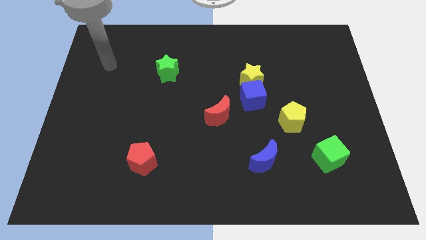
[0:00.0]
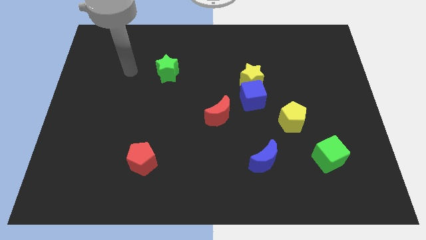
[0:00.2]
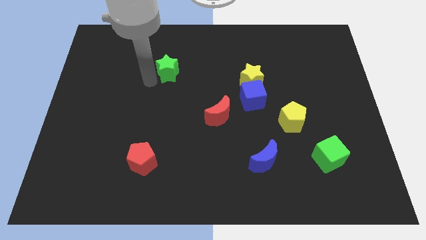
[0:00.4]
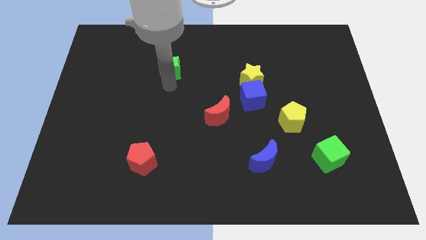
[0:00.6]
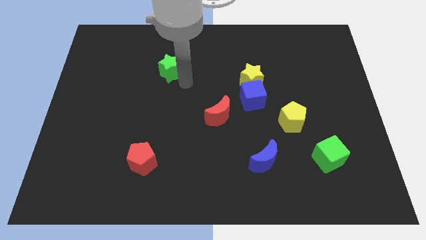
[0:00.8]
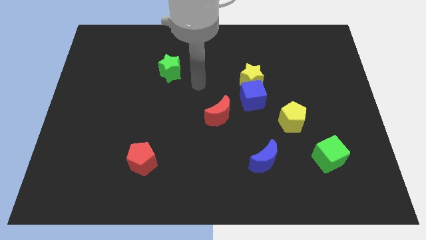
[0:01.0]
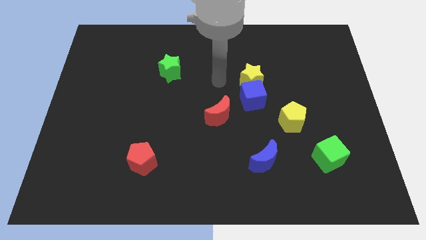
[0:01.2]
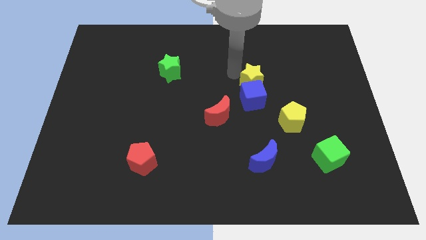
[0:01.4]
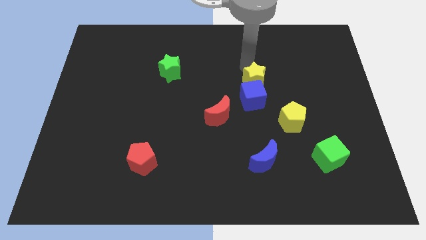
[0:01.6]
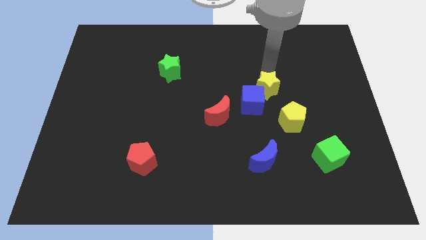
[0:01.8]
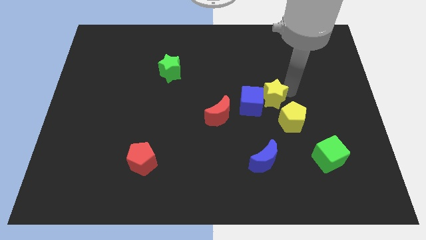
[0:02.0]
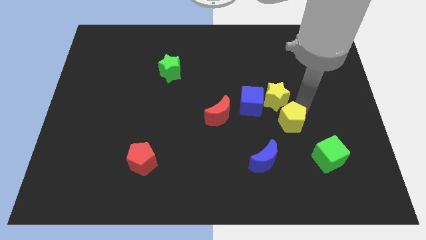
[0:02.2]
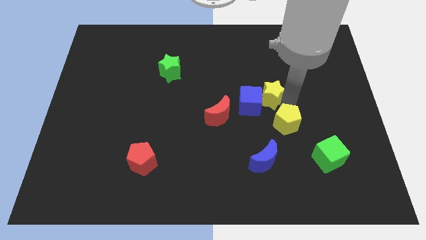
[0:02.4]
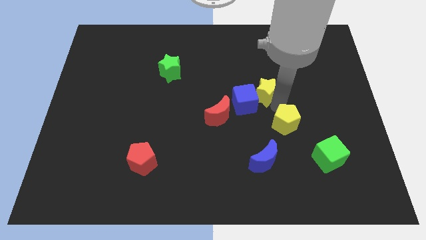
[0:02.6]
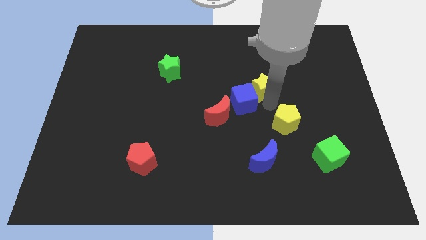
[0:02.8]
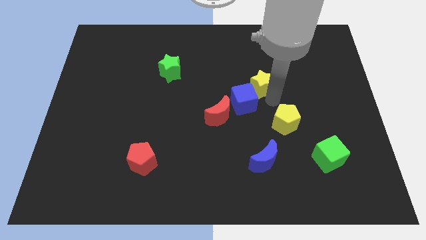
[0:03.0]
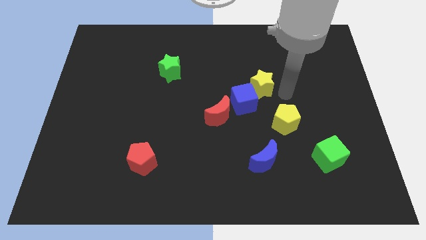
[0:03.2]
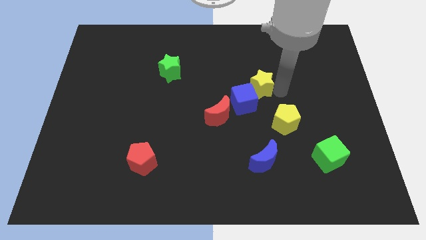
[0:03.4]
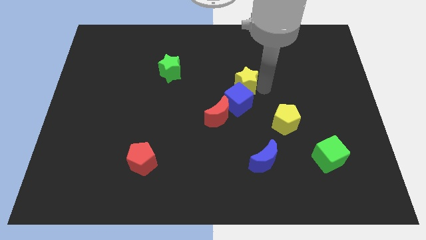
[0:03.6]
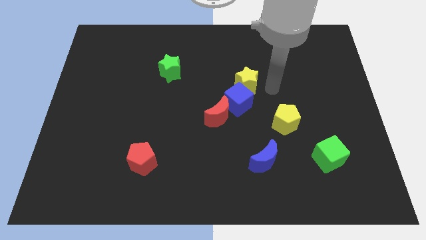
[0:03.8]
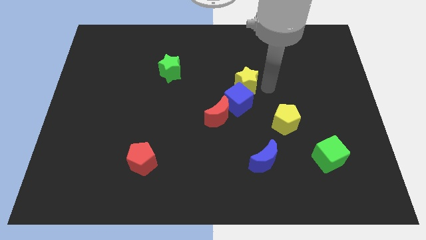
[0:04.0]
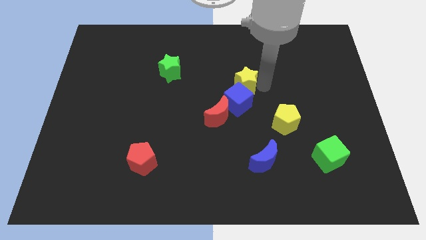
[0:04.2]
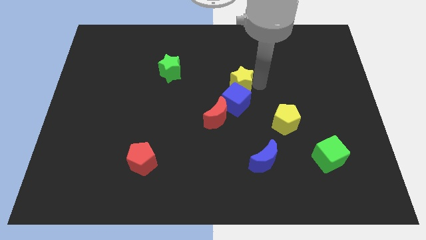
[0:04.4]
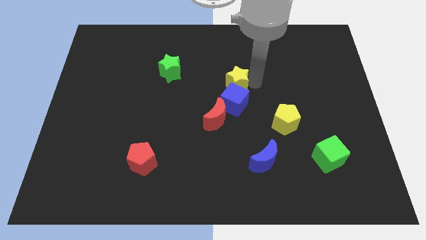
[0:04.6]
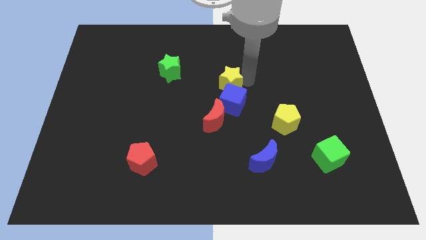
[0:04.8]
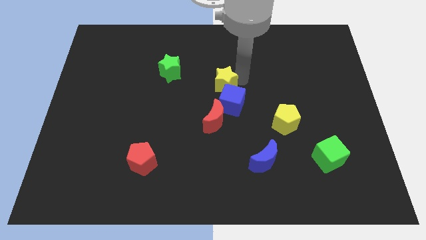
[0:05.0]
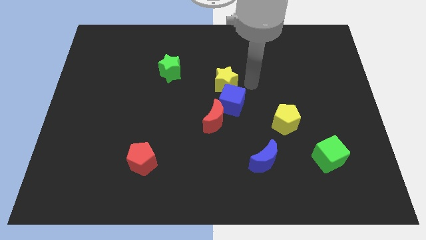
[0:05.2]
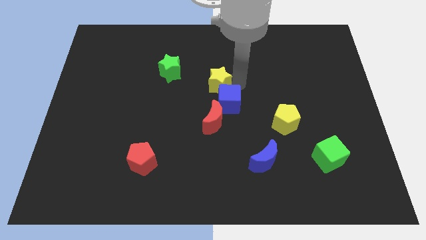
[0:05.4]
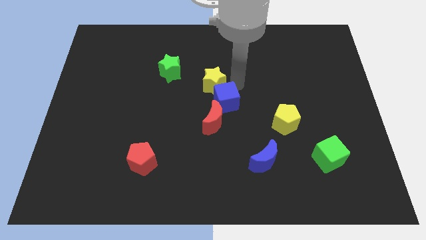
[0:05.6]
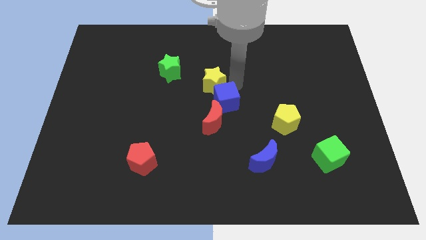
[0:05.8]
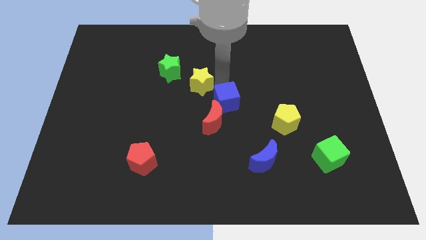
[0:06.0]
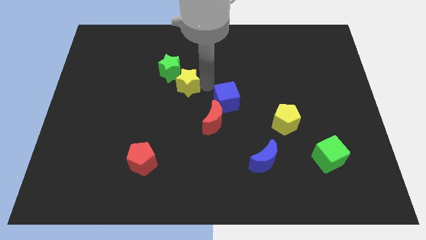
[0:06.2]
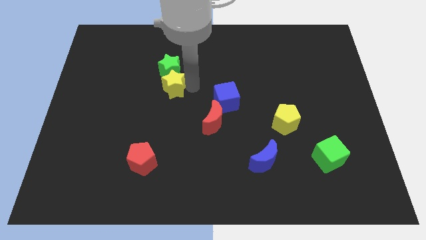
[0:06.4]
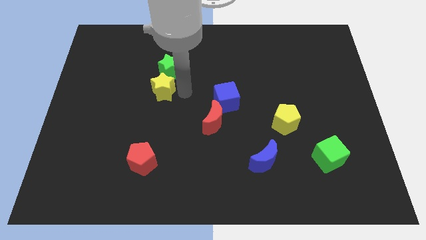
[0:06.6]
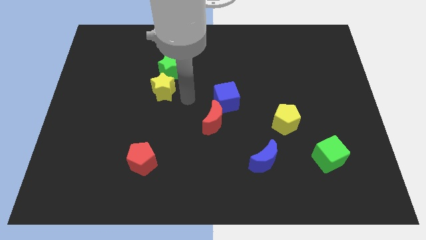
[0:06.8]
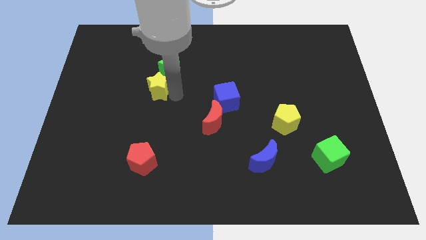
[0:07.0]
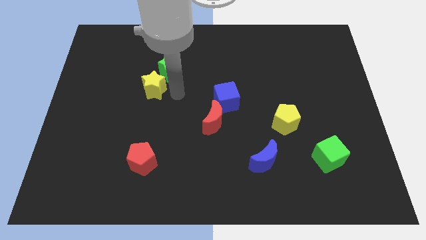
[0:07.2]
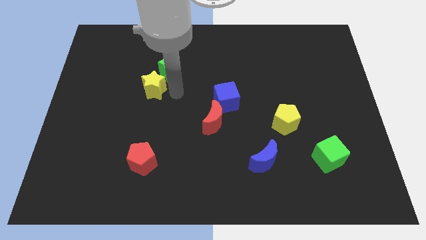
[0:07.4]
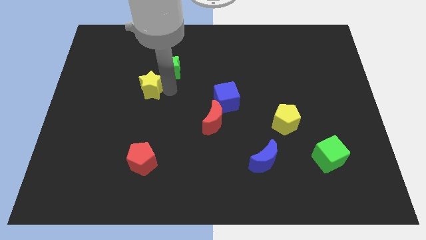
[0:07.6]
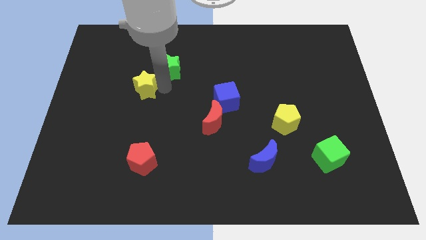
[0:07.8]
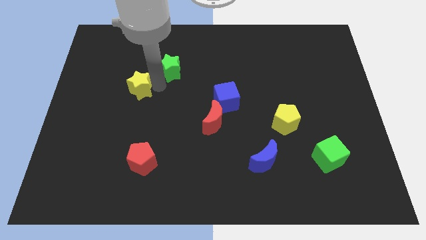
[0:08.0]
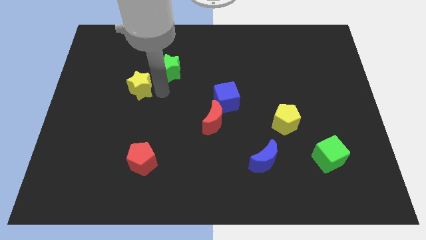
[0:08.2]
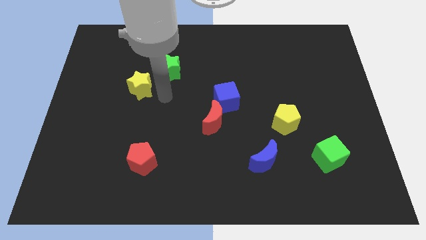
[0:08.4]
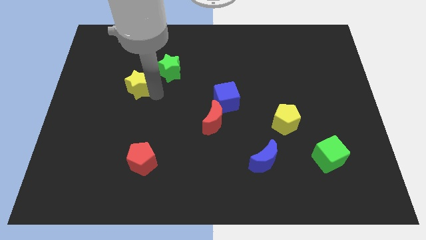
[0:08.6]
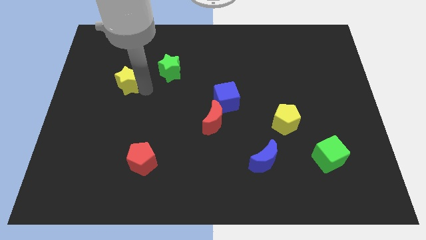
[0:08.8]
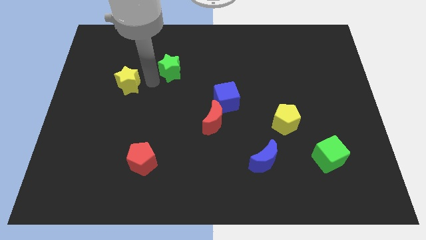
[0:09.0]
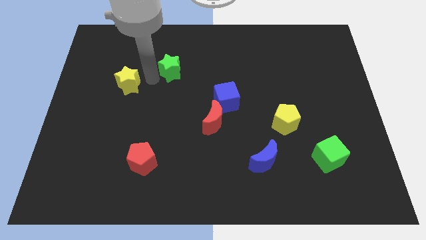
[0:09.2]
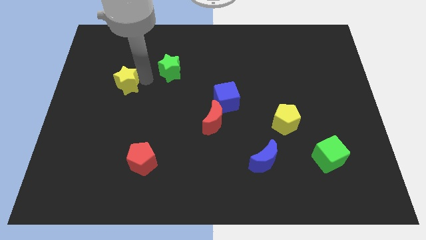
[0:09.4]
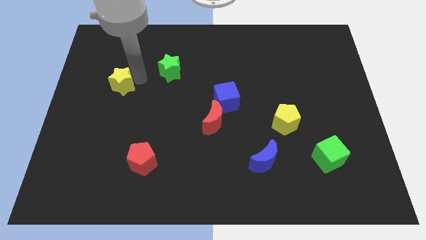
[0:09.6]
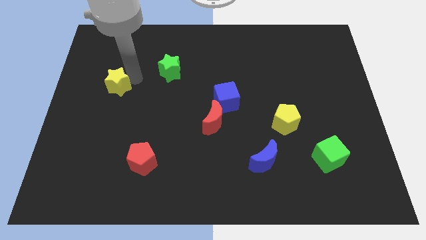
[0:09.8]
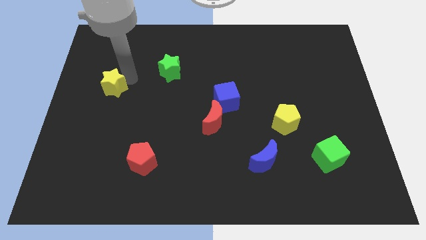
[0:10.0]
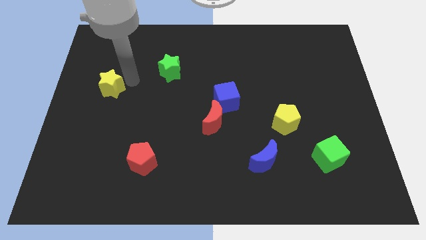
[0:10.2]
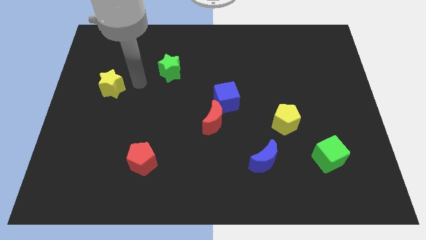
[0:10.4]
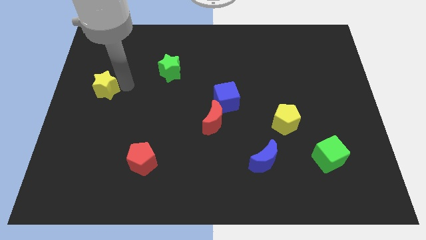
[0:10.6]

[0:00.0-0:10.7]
push the yellow star to the left side of the board

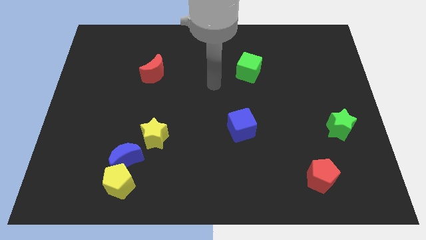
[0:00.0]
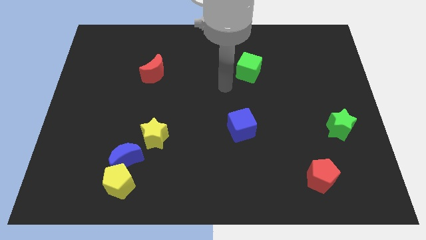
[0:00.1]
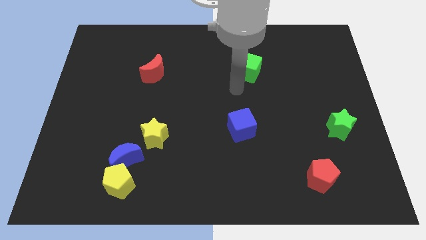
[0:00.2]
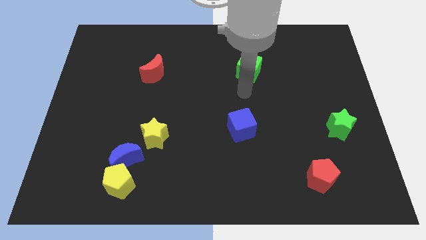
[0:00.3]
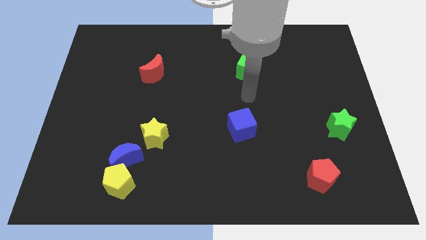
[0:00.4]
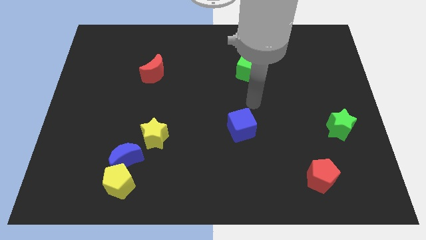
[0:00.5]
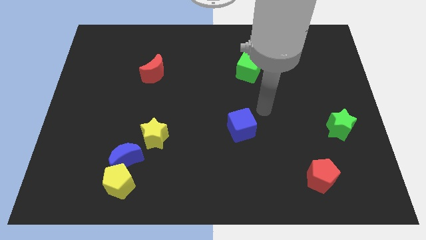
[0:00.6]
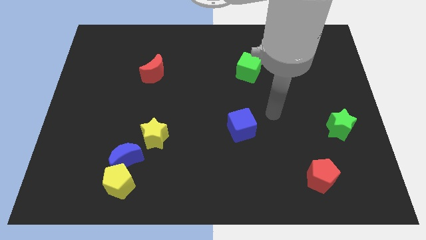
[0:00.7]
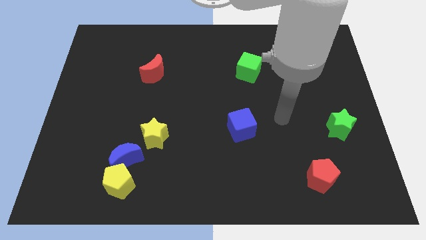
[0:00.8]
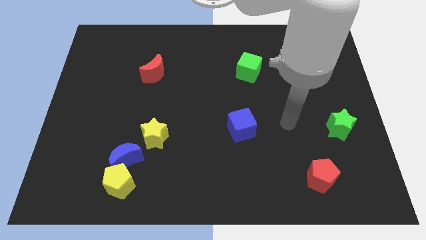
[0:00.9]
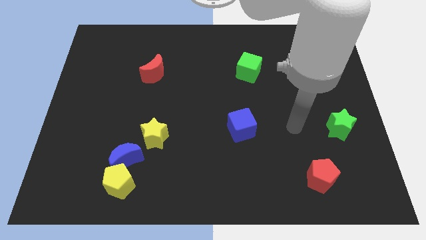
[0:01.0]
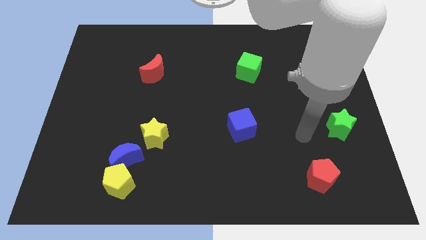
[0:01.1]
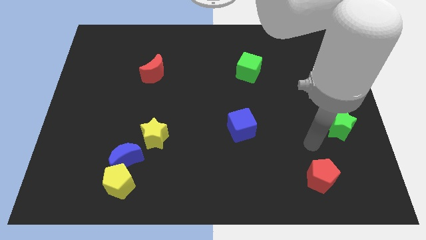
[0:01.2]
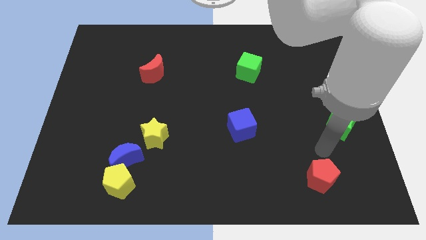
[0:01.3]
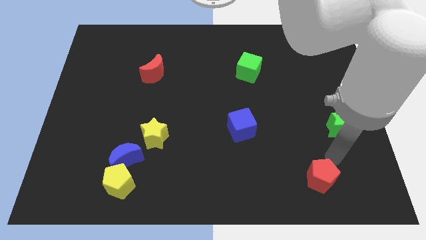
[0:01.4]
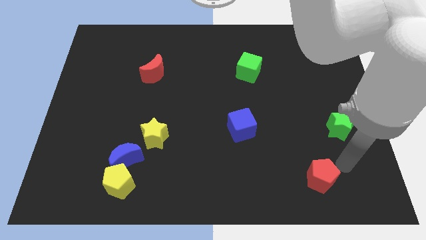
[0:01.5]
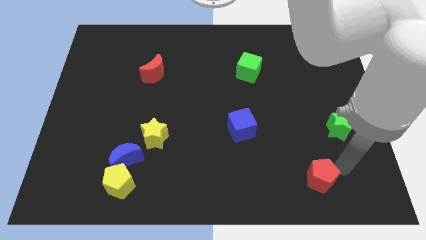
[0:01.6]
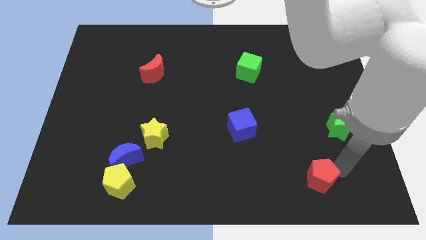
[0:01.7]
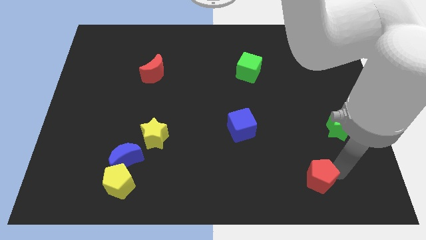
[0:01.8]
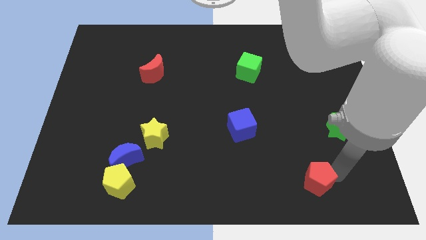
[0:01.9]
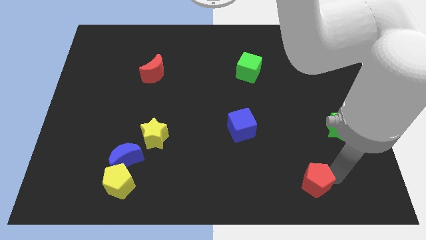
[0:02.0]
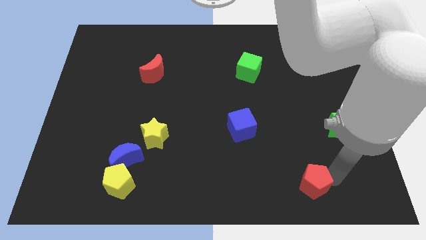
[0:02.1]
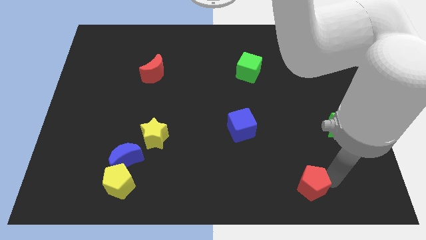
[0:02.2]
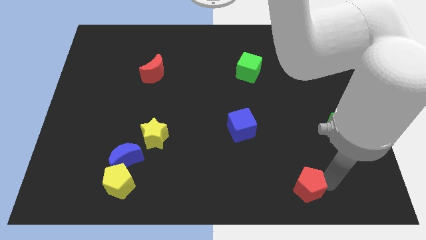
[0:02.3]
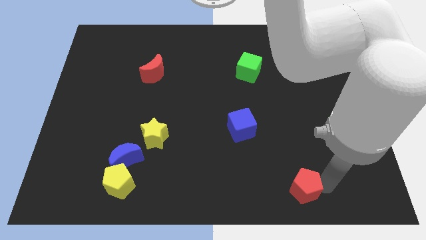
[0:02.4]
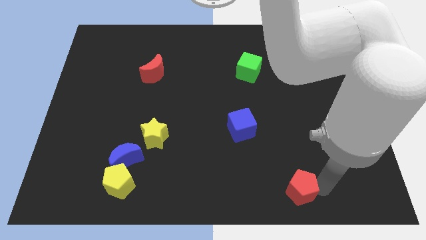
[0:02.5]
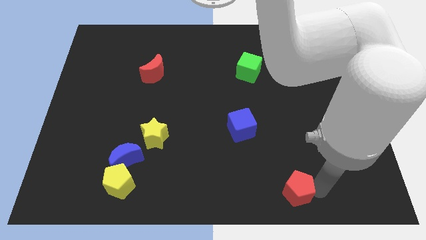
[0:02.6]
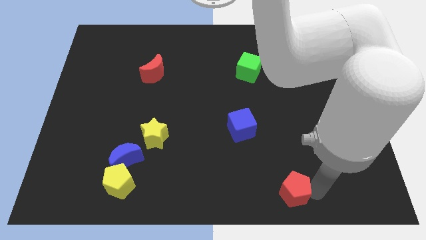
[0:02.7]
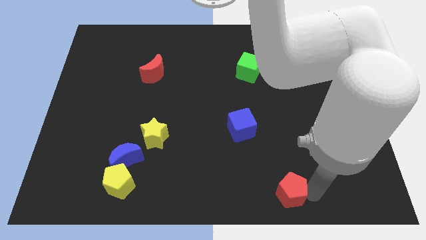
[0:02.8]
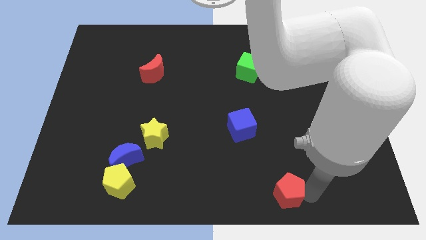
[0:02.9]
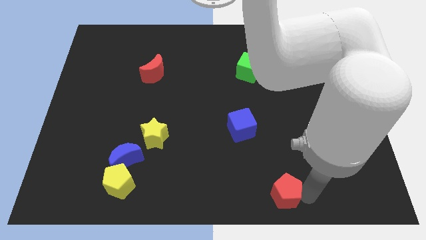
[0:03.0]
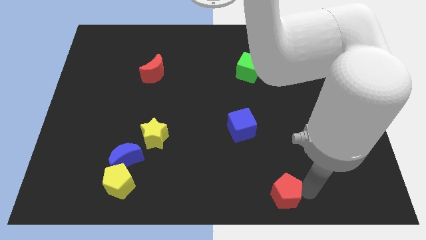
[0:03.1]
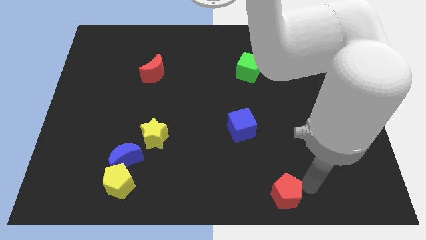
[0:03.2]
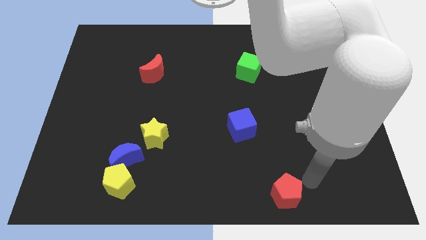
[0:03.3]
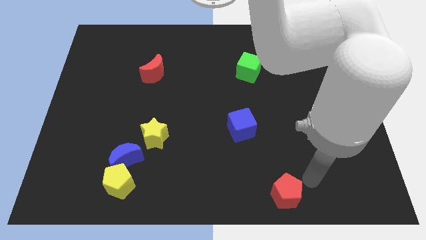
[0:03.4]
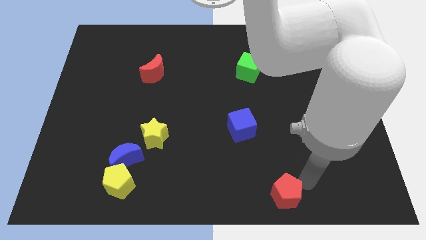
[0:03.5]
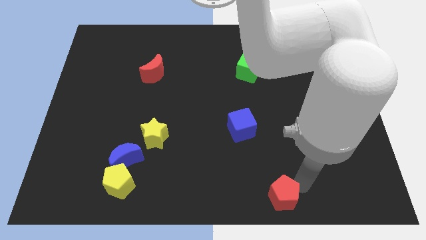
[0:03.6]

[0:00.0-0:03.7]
slide the red pentagon to the bottom side
